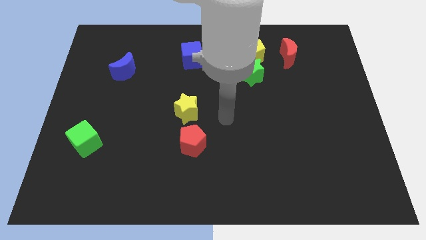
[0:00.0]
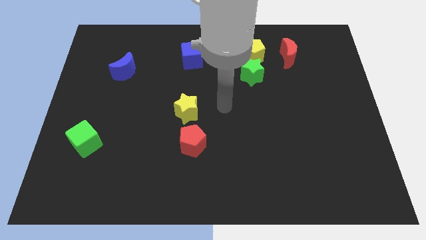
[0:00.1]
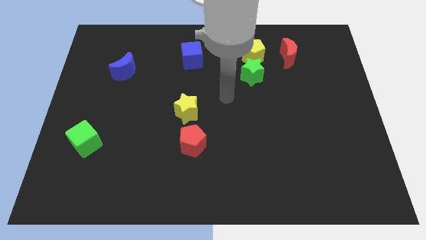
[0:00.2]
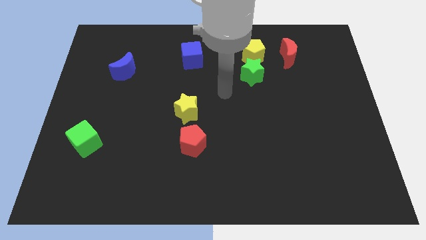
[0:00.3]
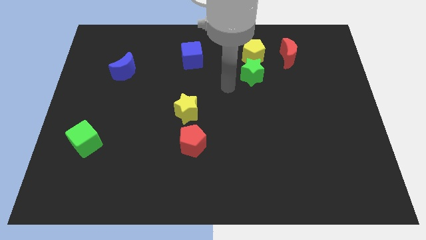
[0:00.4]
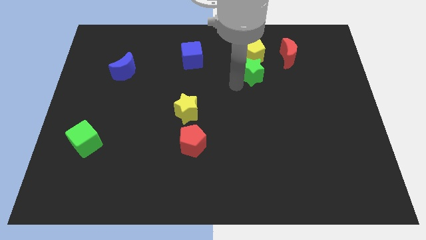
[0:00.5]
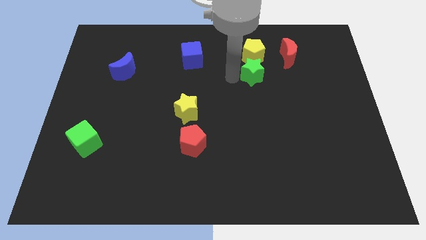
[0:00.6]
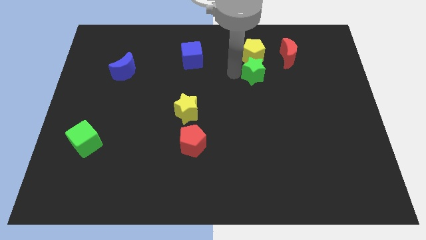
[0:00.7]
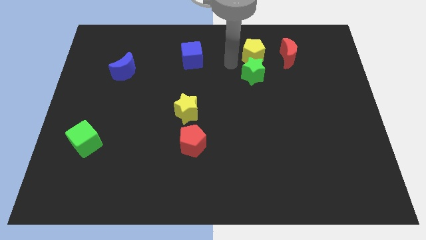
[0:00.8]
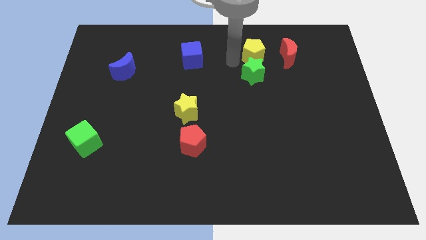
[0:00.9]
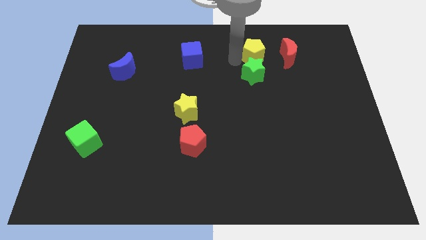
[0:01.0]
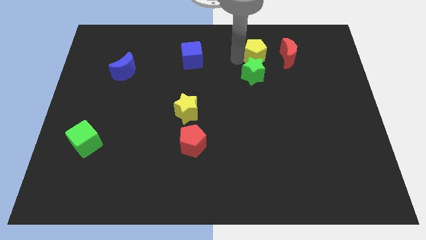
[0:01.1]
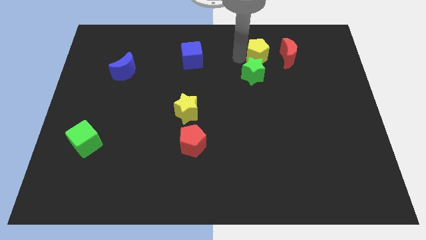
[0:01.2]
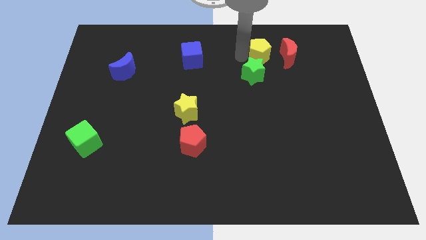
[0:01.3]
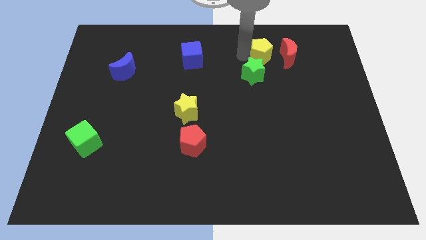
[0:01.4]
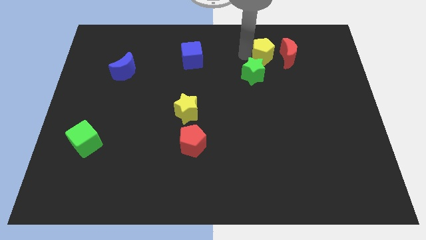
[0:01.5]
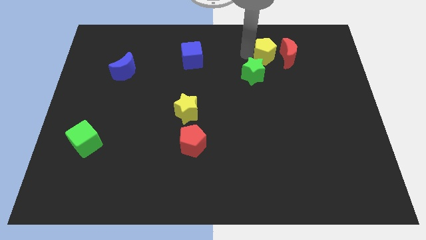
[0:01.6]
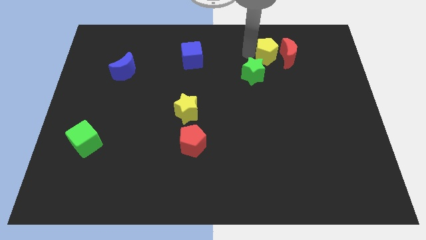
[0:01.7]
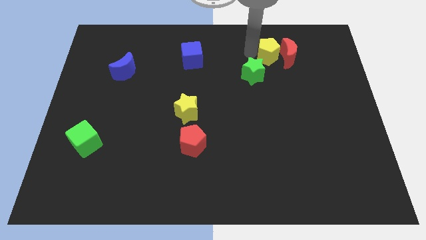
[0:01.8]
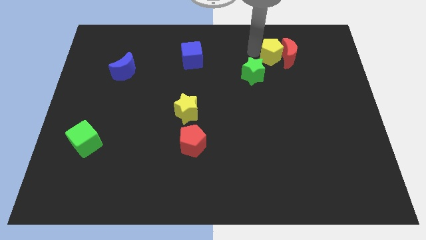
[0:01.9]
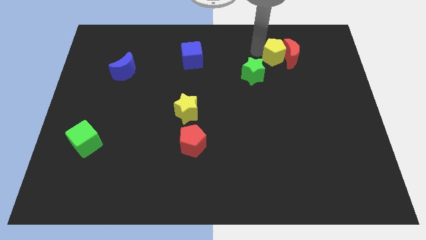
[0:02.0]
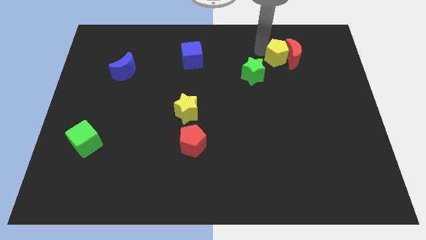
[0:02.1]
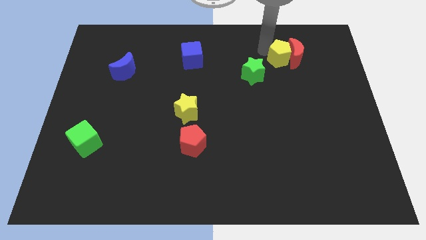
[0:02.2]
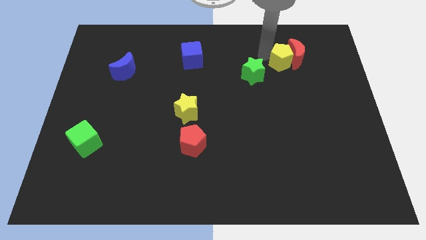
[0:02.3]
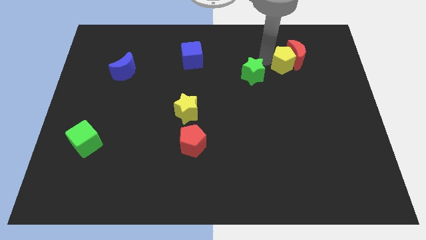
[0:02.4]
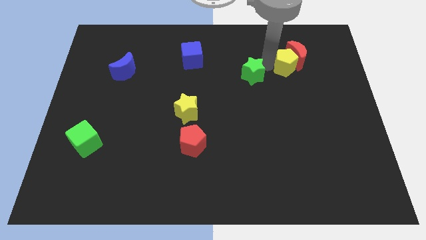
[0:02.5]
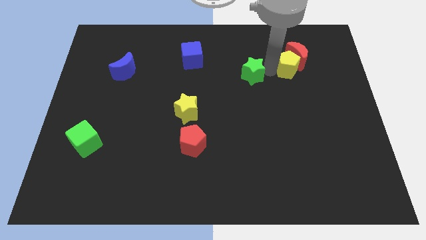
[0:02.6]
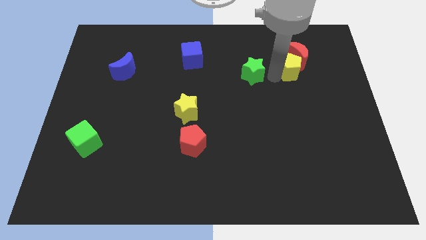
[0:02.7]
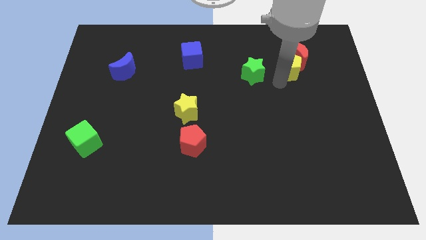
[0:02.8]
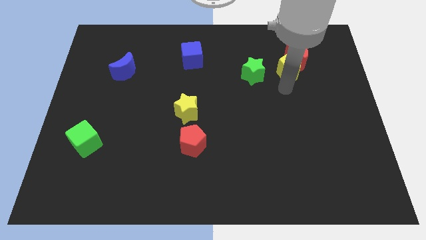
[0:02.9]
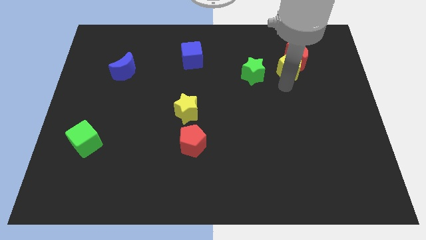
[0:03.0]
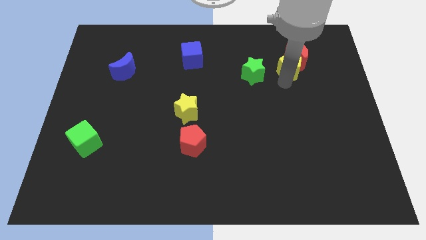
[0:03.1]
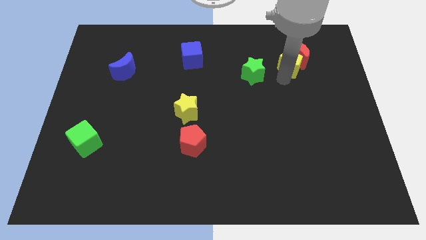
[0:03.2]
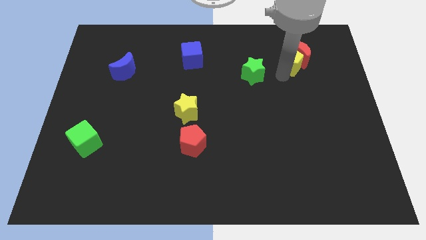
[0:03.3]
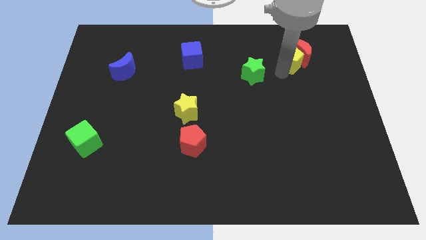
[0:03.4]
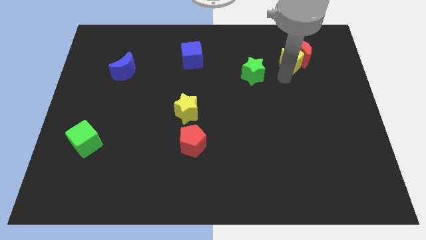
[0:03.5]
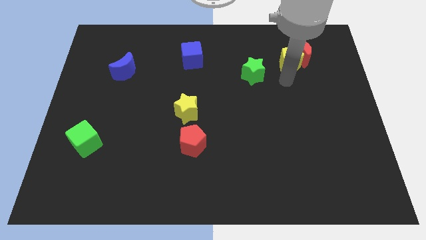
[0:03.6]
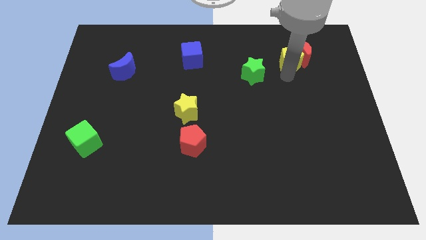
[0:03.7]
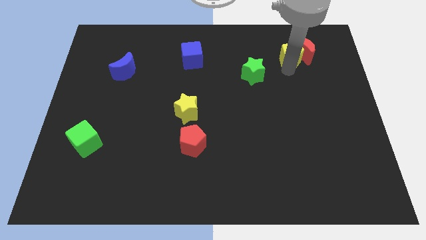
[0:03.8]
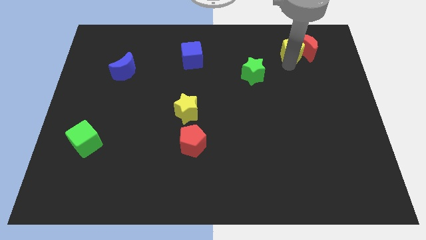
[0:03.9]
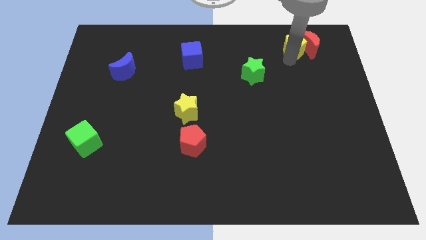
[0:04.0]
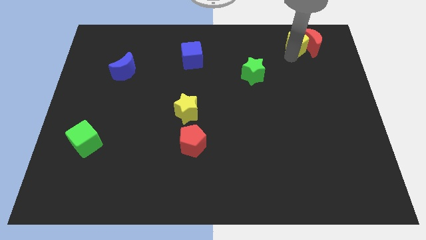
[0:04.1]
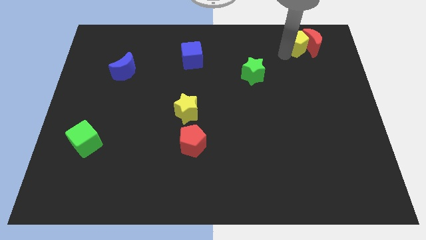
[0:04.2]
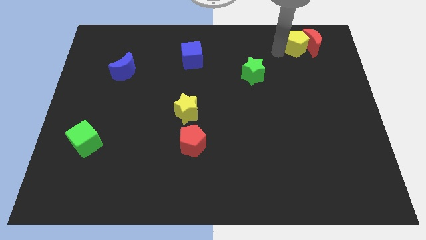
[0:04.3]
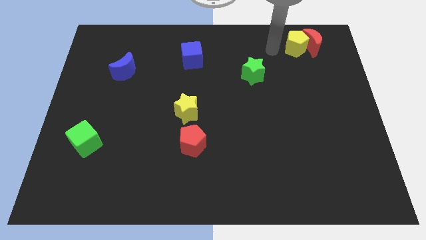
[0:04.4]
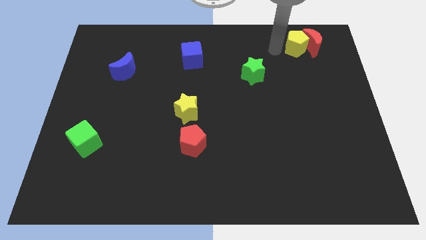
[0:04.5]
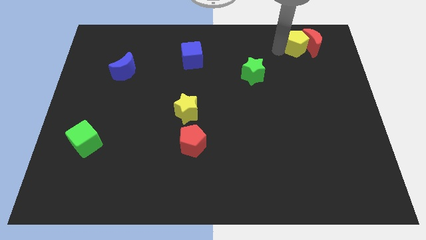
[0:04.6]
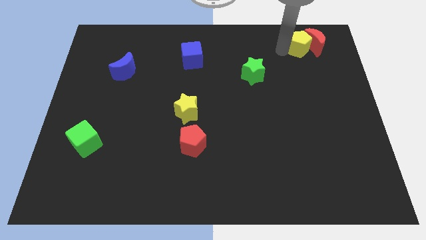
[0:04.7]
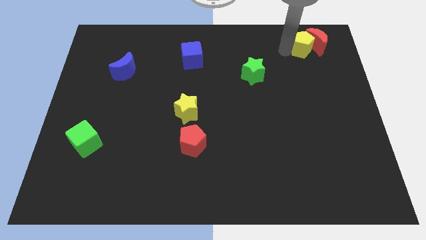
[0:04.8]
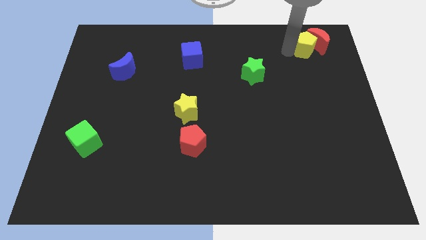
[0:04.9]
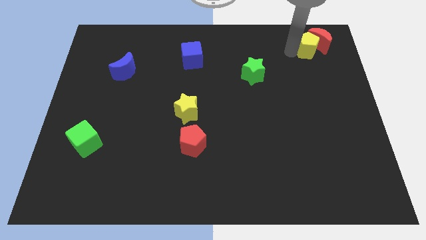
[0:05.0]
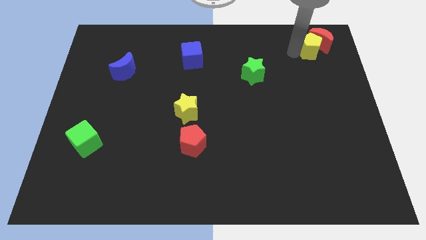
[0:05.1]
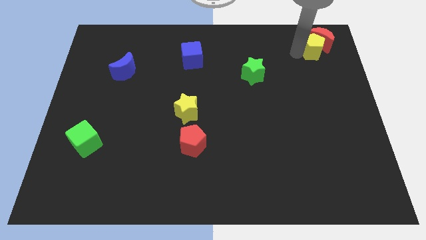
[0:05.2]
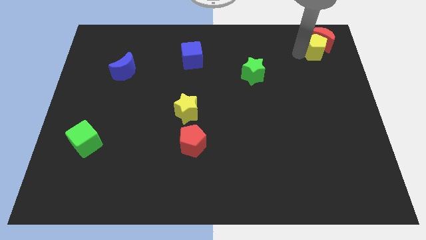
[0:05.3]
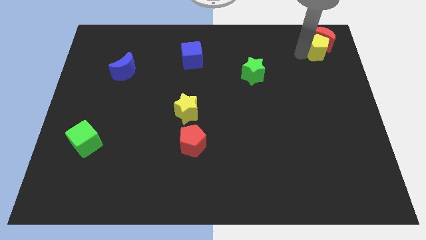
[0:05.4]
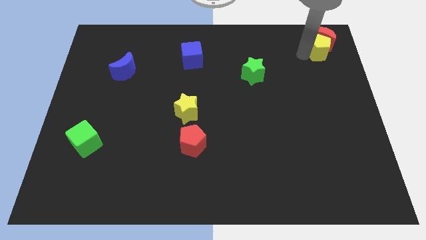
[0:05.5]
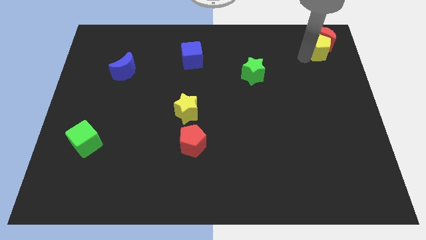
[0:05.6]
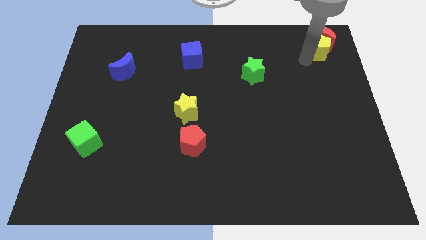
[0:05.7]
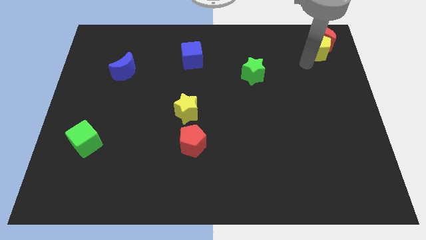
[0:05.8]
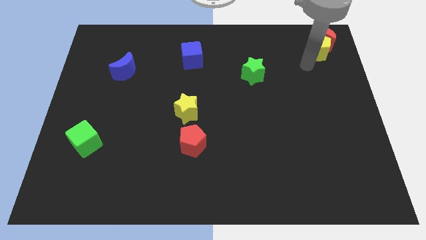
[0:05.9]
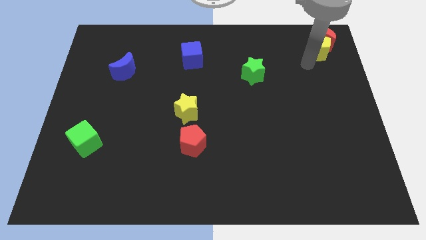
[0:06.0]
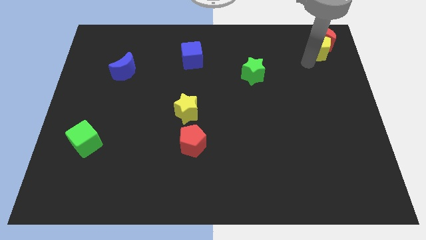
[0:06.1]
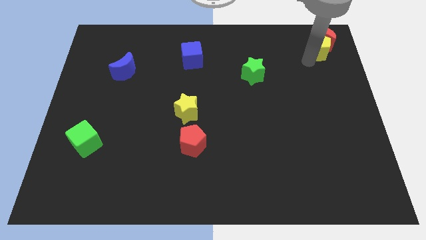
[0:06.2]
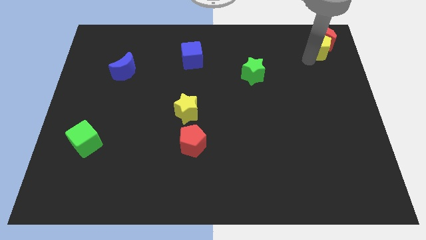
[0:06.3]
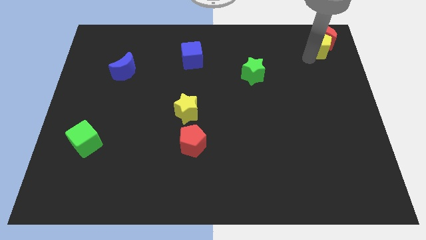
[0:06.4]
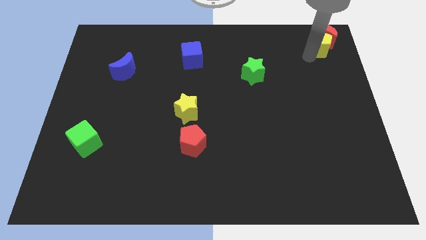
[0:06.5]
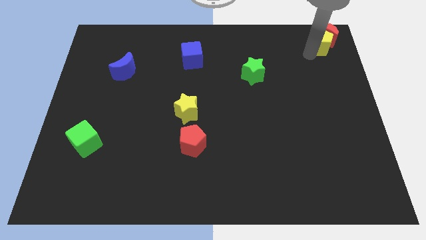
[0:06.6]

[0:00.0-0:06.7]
push the yellow pentagon to the top right of the board
